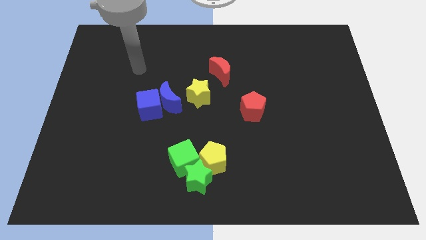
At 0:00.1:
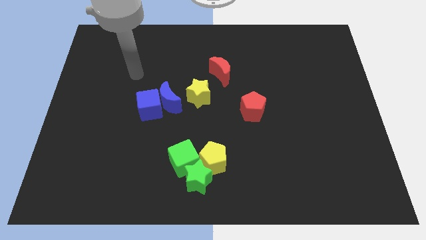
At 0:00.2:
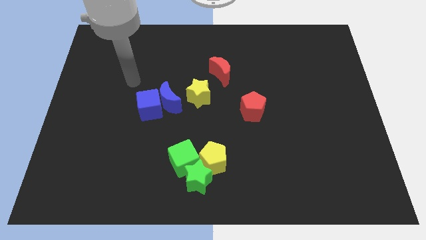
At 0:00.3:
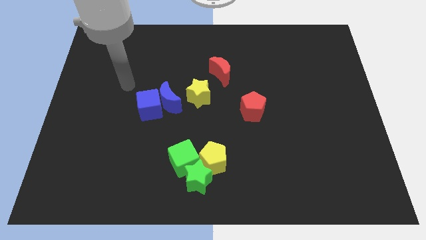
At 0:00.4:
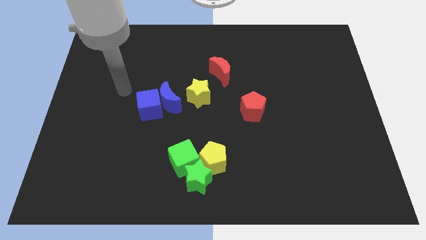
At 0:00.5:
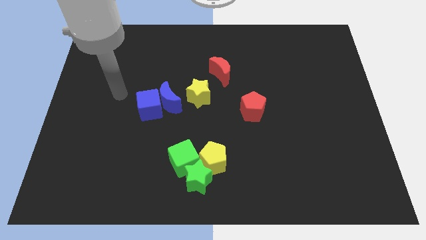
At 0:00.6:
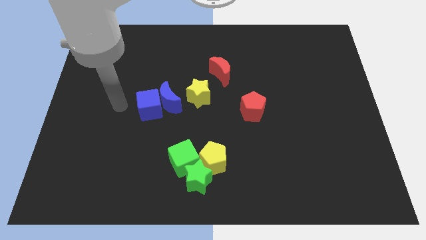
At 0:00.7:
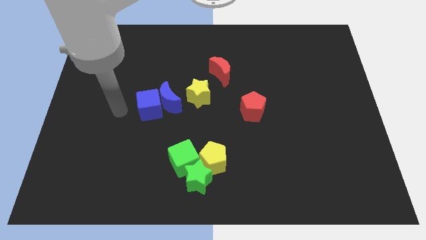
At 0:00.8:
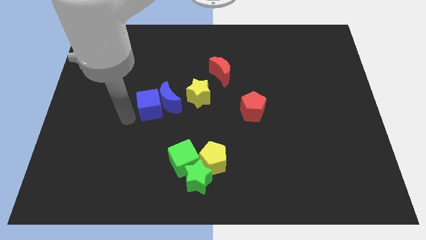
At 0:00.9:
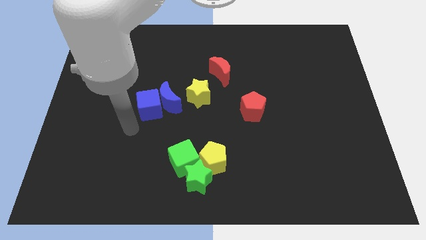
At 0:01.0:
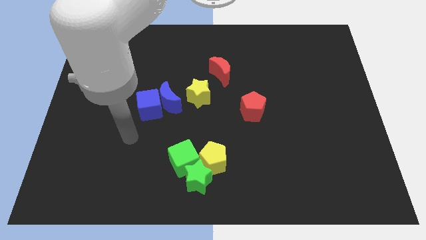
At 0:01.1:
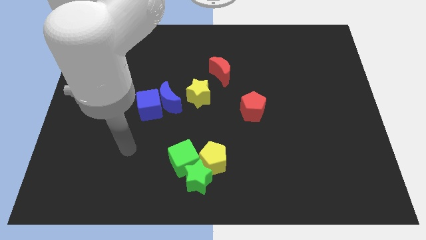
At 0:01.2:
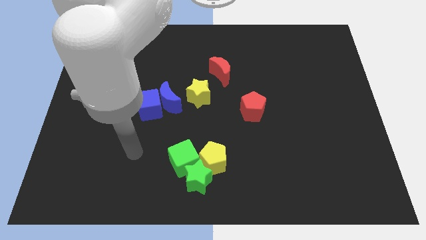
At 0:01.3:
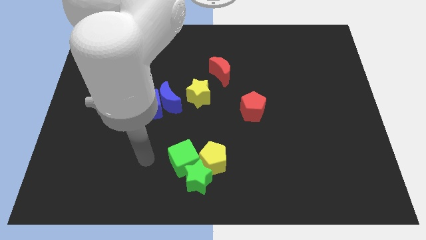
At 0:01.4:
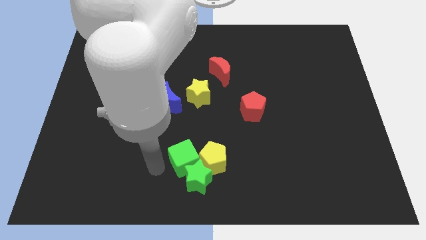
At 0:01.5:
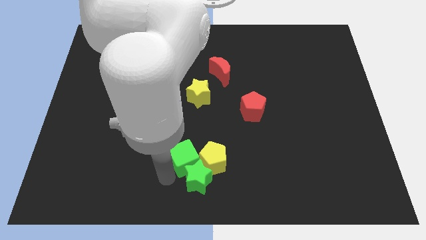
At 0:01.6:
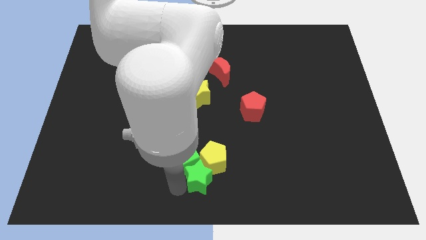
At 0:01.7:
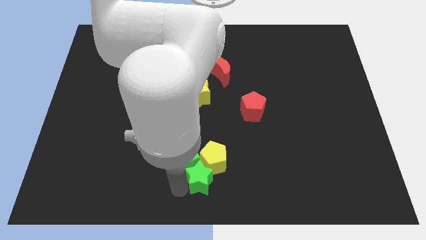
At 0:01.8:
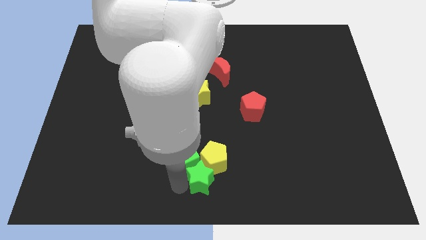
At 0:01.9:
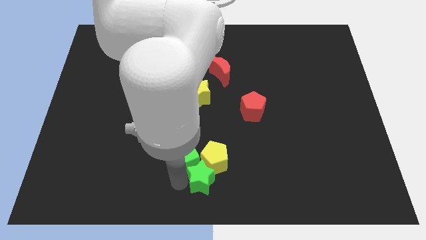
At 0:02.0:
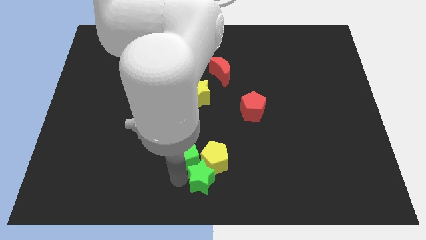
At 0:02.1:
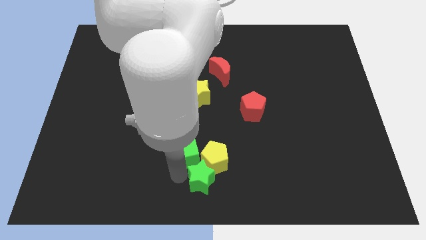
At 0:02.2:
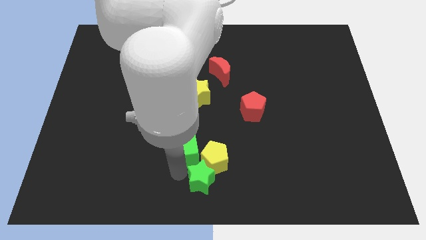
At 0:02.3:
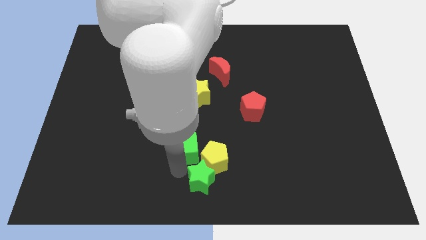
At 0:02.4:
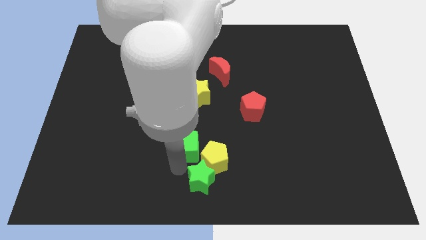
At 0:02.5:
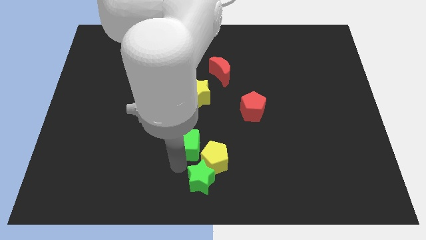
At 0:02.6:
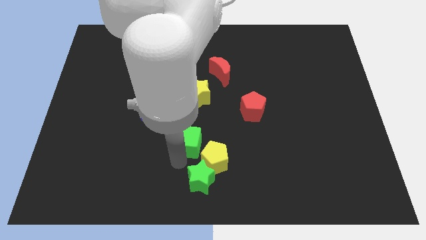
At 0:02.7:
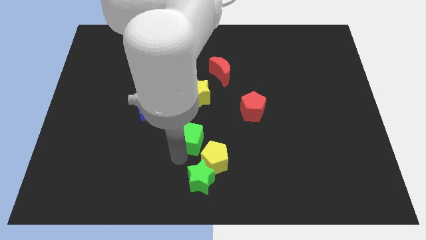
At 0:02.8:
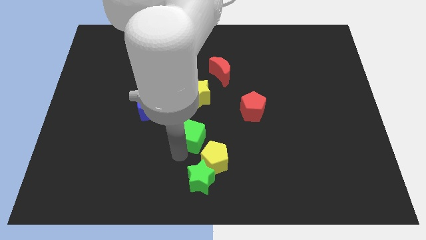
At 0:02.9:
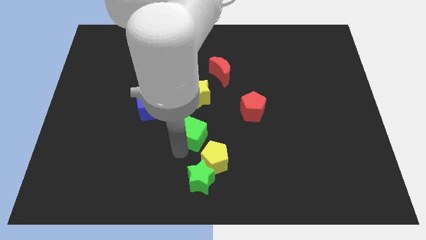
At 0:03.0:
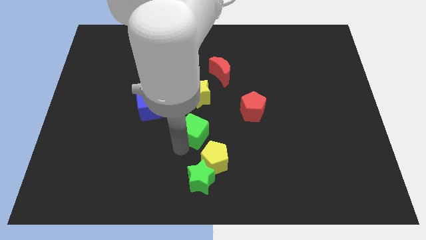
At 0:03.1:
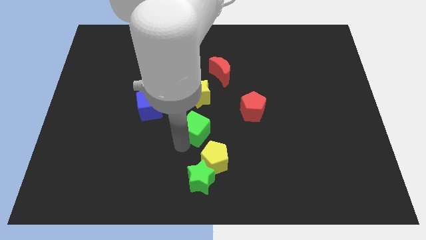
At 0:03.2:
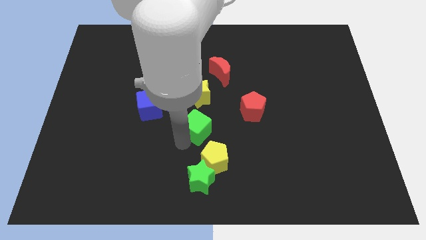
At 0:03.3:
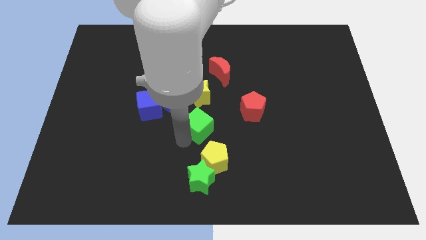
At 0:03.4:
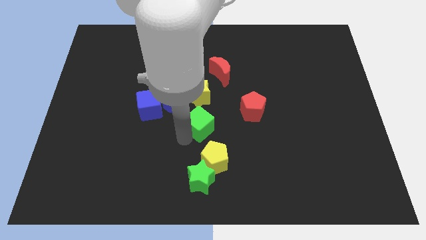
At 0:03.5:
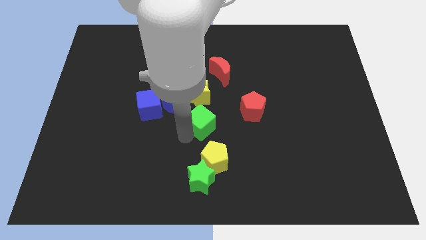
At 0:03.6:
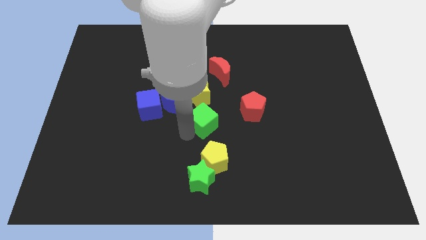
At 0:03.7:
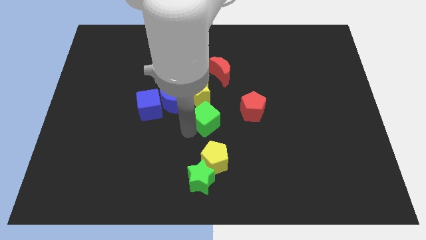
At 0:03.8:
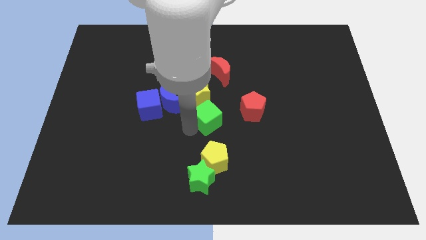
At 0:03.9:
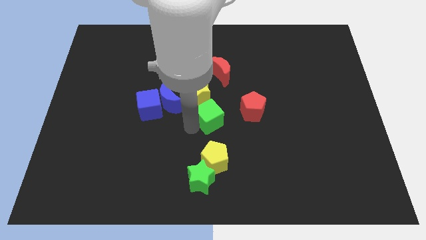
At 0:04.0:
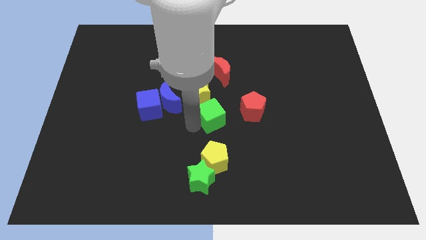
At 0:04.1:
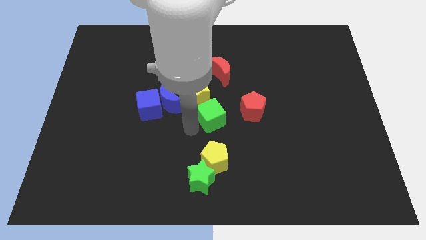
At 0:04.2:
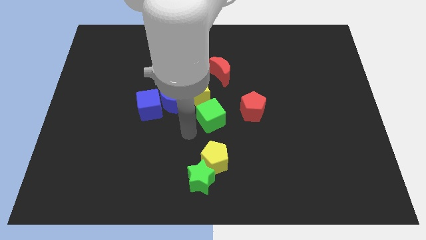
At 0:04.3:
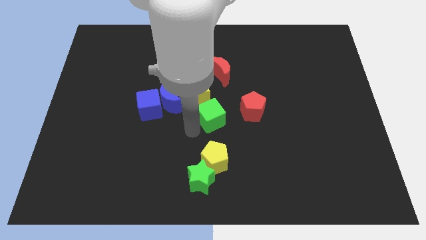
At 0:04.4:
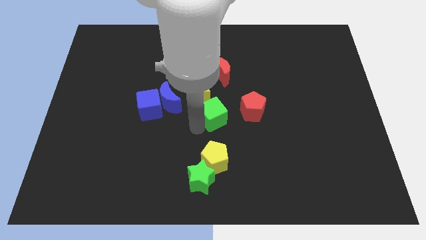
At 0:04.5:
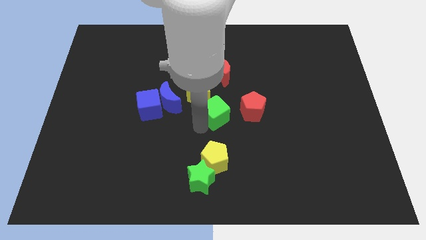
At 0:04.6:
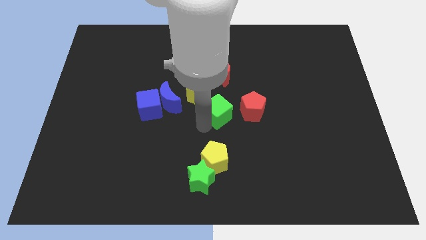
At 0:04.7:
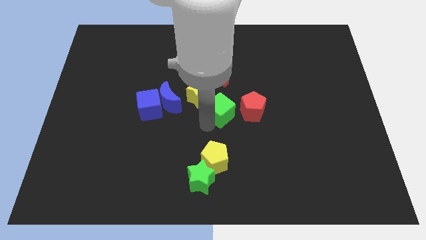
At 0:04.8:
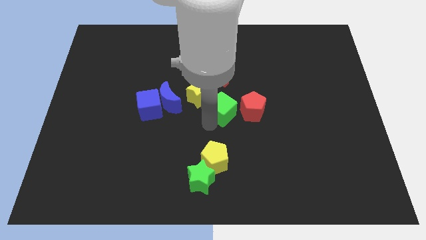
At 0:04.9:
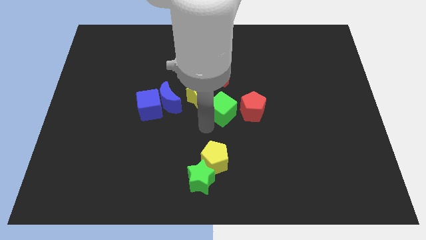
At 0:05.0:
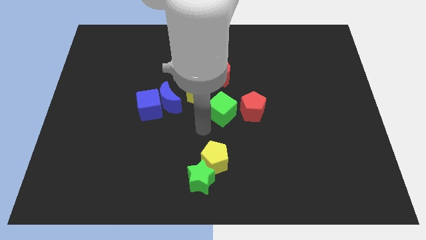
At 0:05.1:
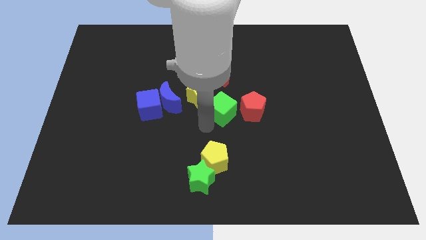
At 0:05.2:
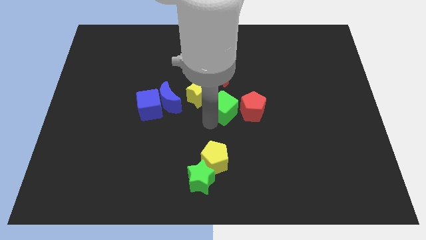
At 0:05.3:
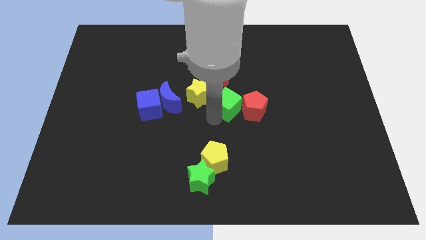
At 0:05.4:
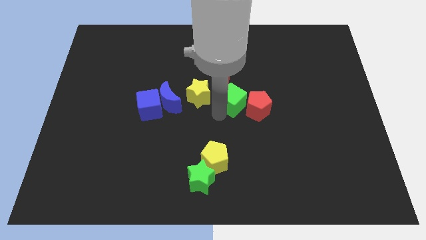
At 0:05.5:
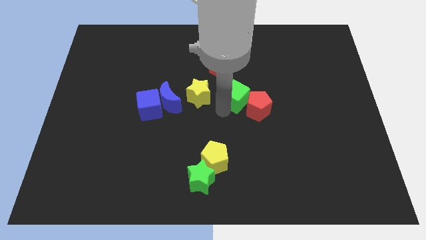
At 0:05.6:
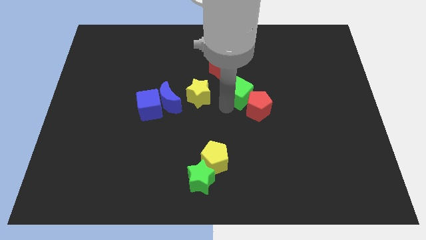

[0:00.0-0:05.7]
move the green cube upwards and then right

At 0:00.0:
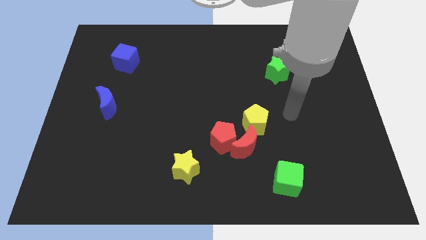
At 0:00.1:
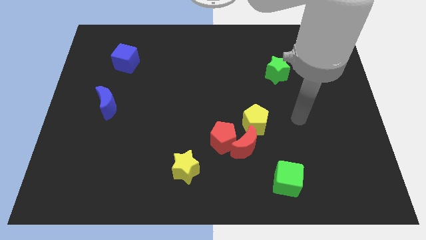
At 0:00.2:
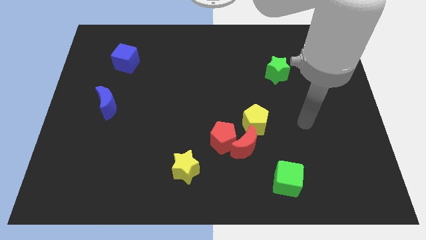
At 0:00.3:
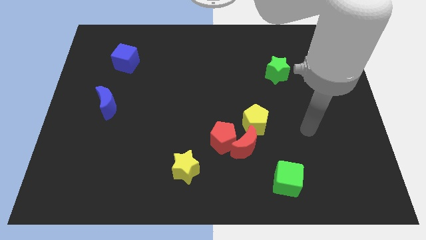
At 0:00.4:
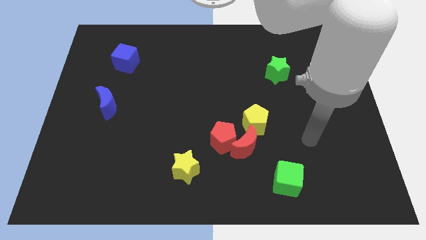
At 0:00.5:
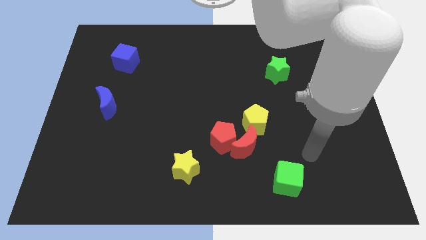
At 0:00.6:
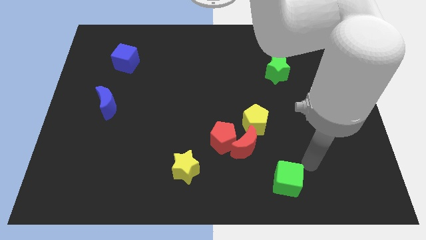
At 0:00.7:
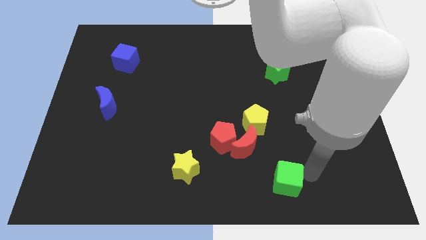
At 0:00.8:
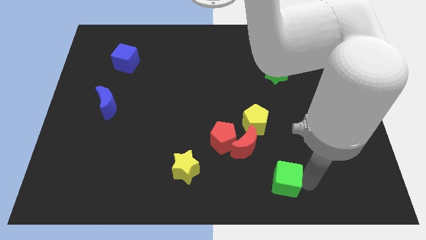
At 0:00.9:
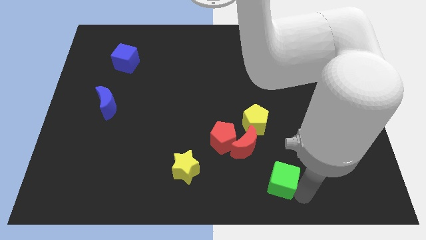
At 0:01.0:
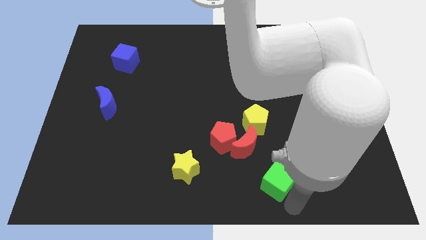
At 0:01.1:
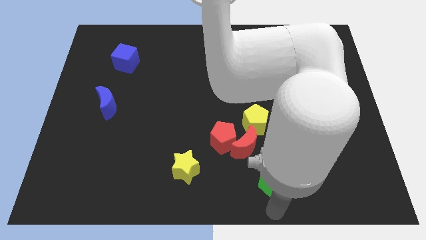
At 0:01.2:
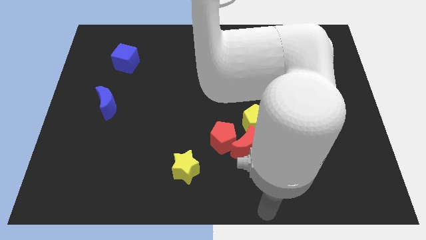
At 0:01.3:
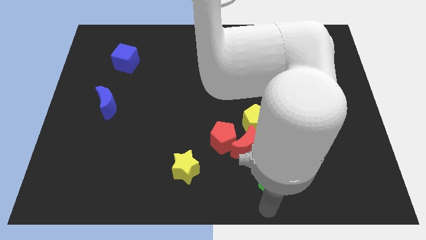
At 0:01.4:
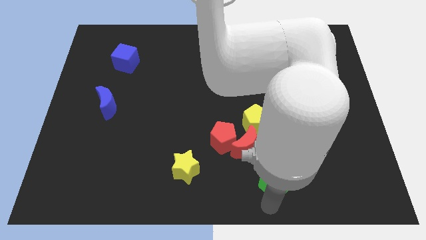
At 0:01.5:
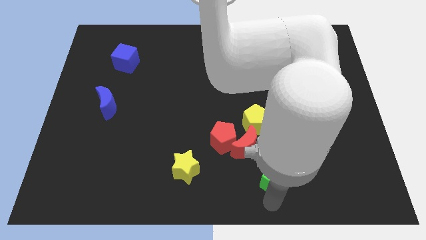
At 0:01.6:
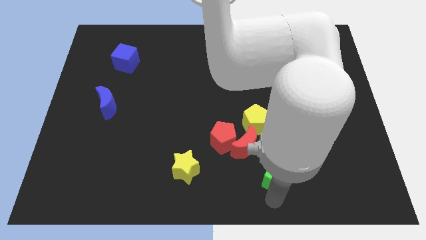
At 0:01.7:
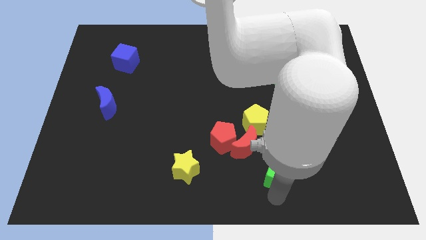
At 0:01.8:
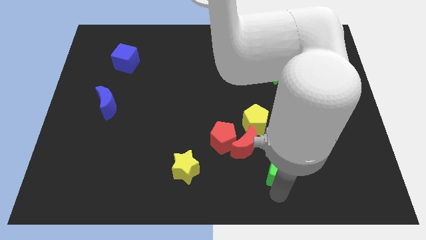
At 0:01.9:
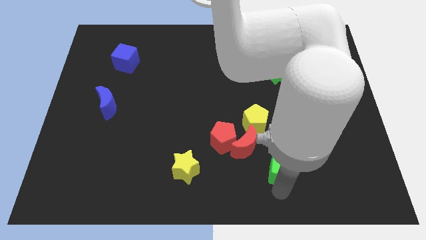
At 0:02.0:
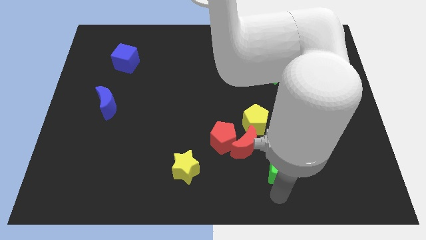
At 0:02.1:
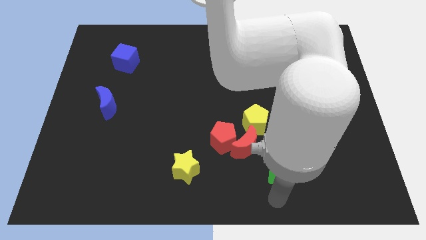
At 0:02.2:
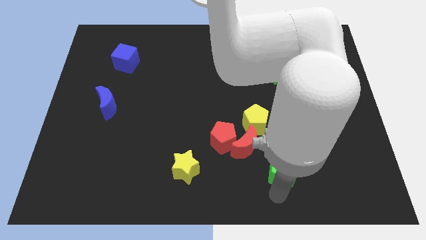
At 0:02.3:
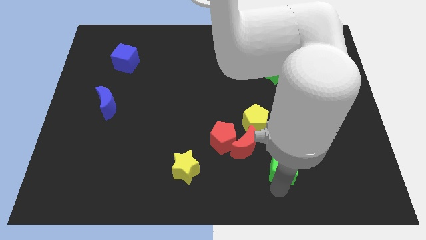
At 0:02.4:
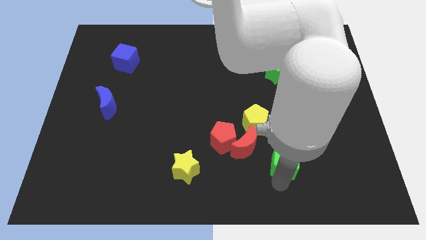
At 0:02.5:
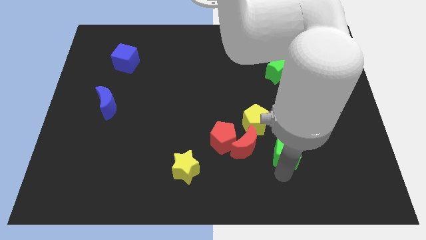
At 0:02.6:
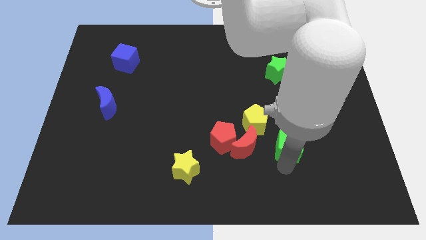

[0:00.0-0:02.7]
move the green cube somewhat up
